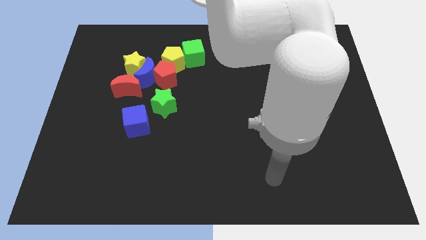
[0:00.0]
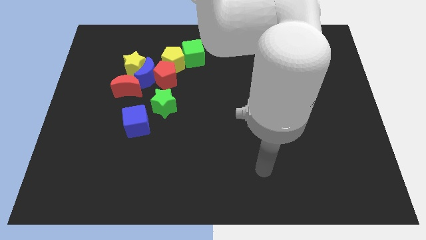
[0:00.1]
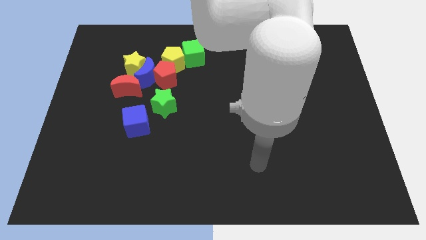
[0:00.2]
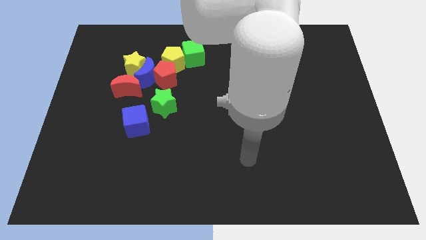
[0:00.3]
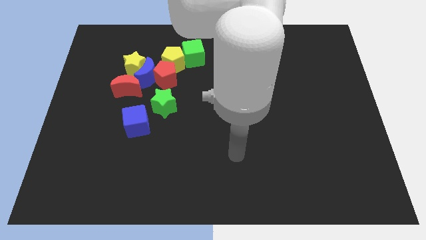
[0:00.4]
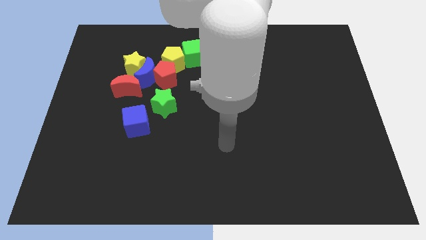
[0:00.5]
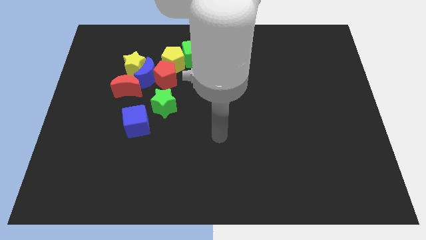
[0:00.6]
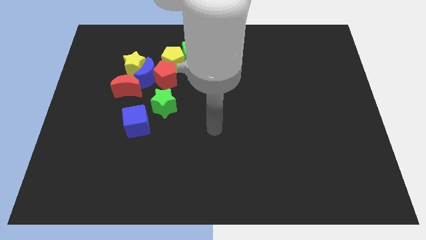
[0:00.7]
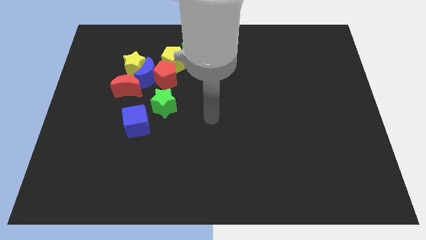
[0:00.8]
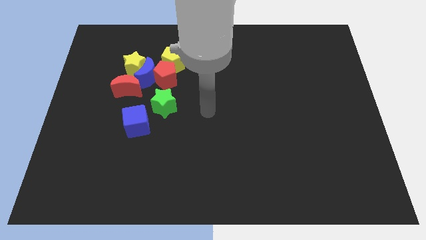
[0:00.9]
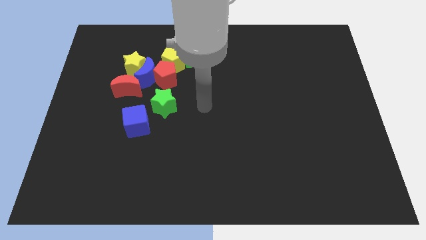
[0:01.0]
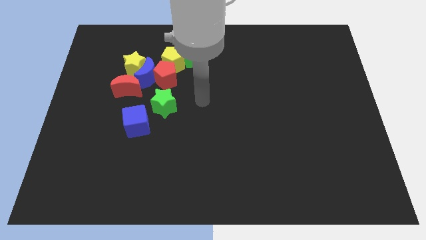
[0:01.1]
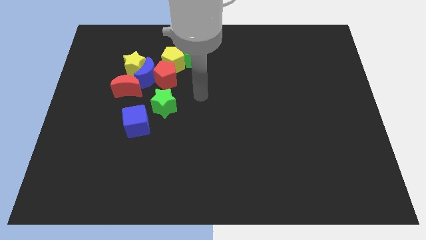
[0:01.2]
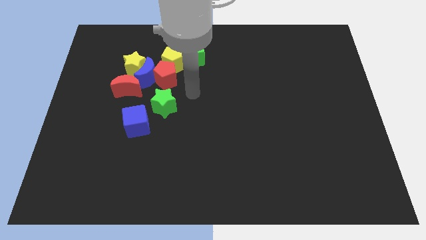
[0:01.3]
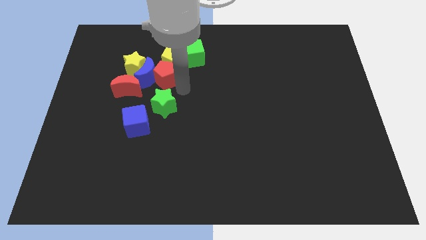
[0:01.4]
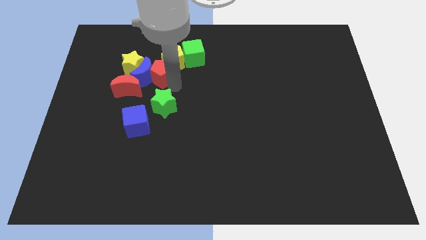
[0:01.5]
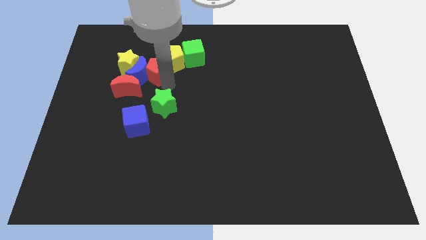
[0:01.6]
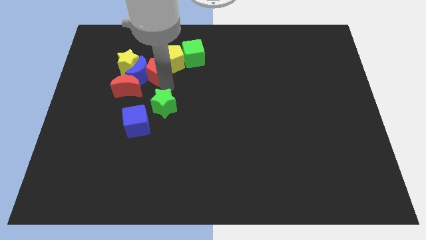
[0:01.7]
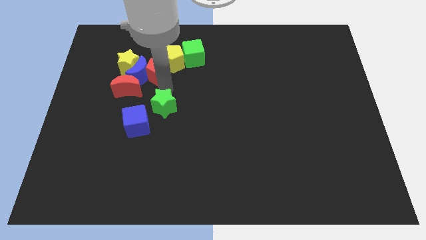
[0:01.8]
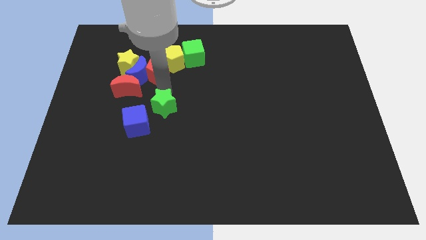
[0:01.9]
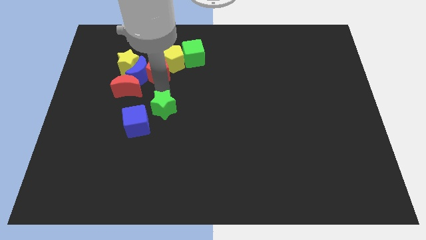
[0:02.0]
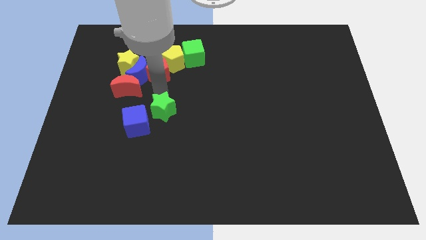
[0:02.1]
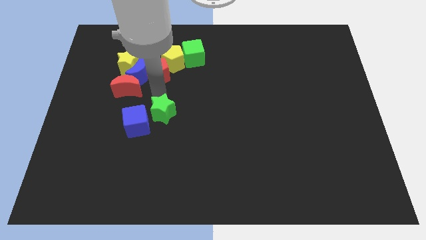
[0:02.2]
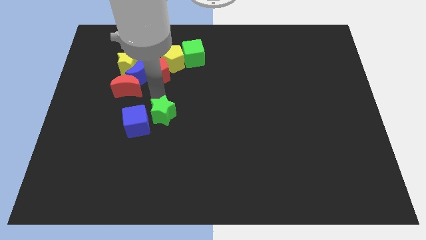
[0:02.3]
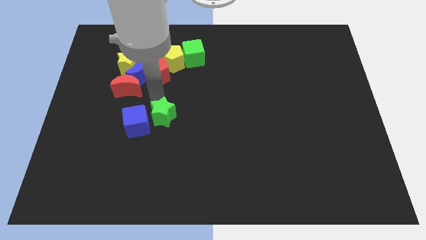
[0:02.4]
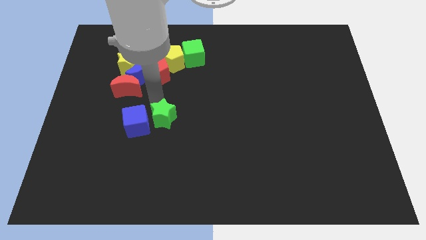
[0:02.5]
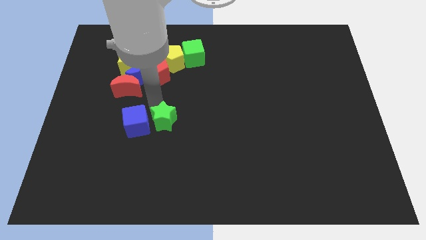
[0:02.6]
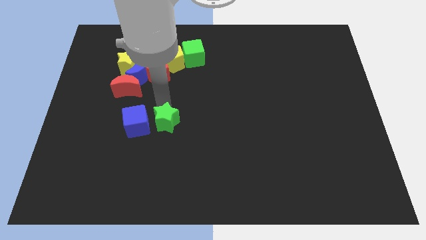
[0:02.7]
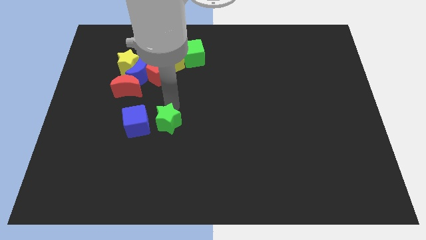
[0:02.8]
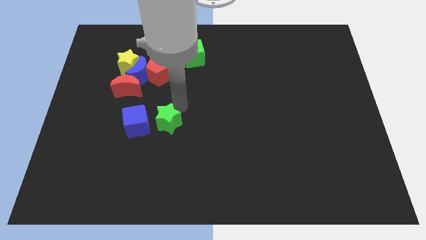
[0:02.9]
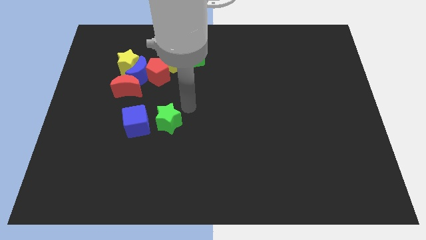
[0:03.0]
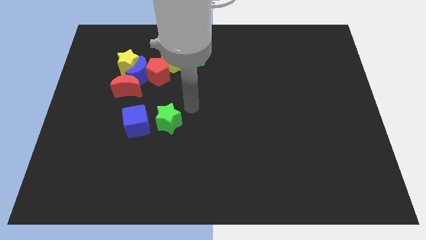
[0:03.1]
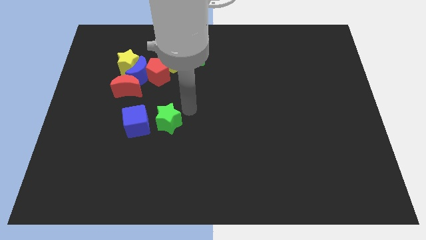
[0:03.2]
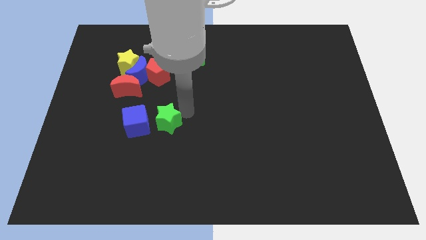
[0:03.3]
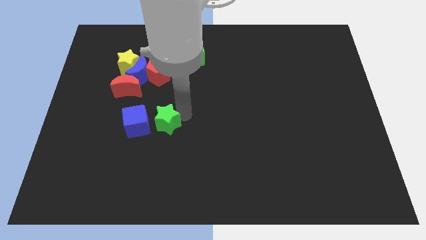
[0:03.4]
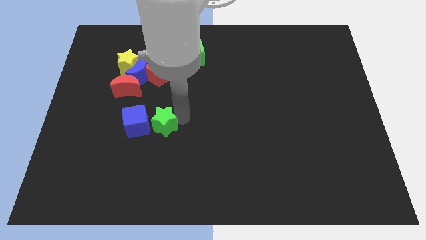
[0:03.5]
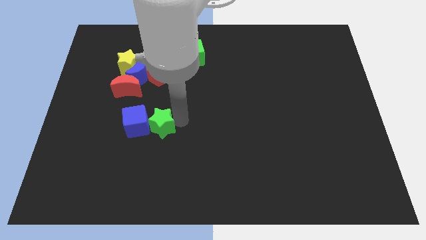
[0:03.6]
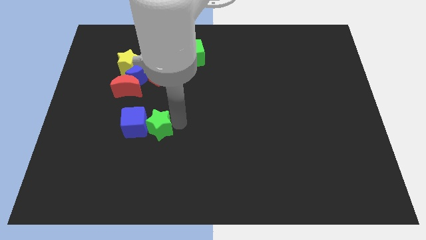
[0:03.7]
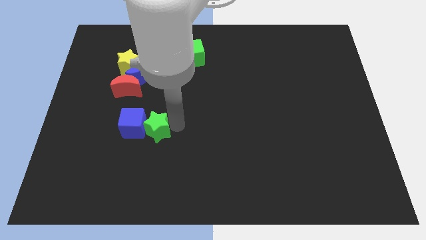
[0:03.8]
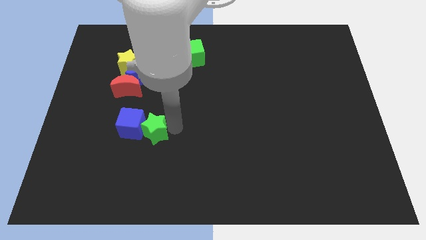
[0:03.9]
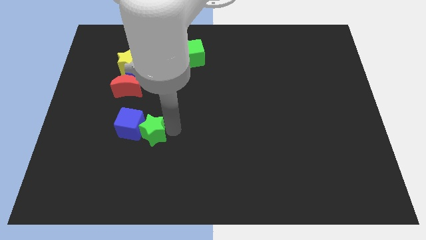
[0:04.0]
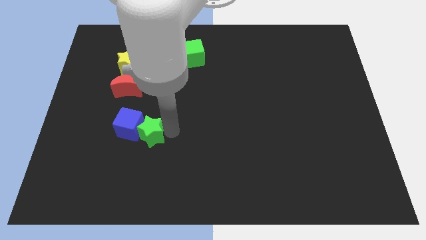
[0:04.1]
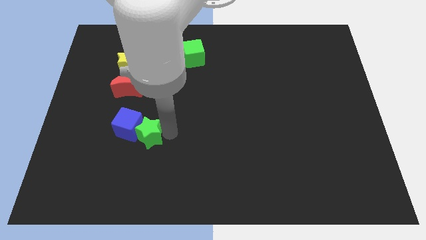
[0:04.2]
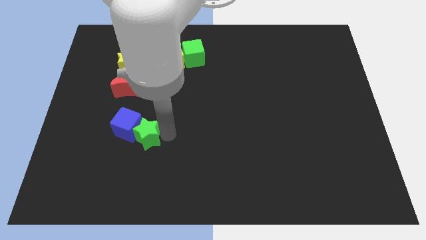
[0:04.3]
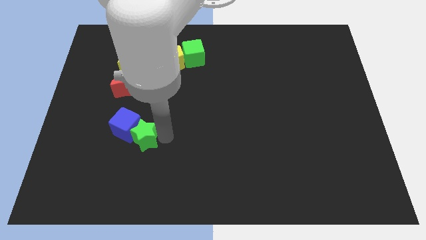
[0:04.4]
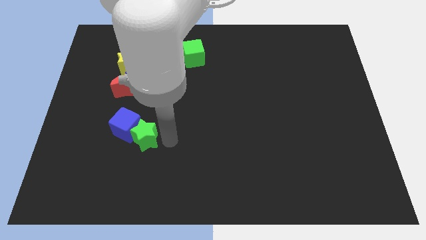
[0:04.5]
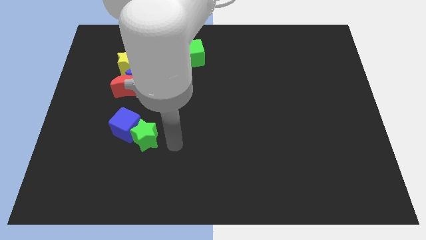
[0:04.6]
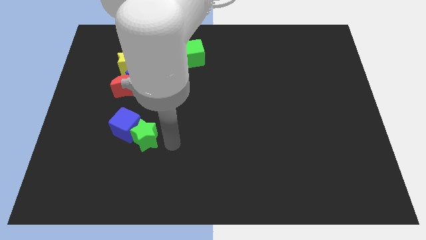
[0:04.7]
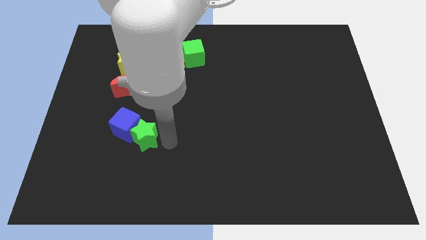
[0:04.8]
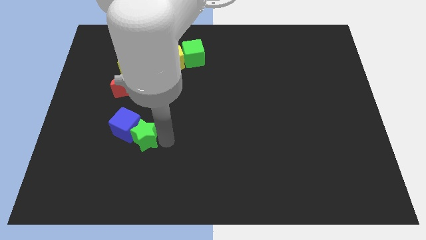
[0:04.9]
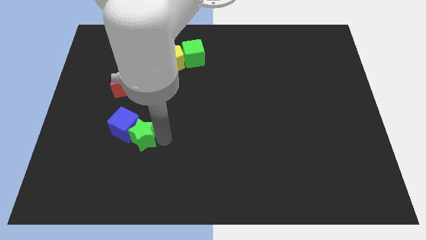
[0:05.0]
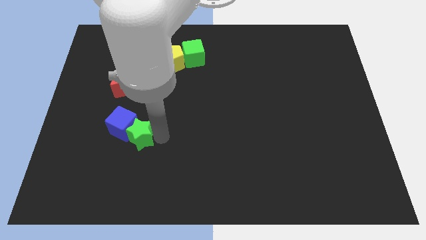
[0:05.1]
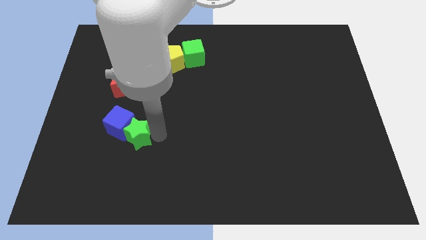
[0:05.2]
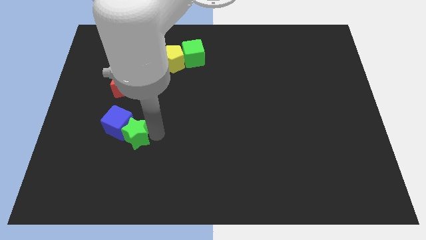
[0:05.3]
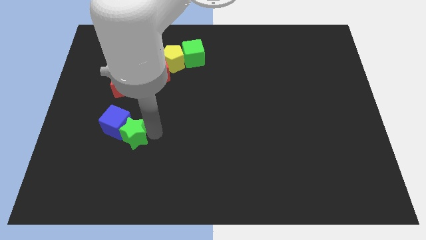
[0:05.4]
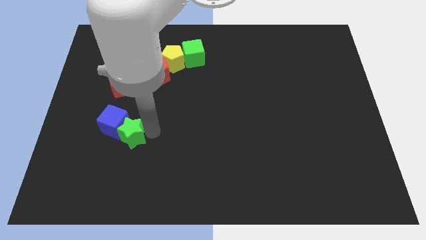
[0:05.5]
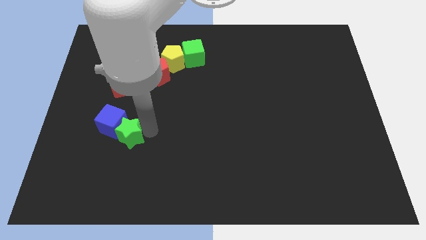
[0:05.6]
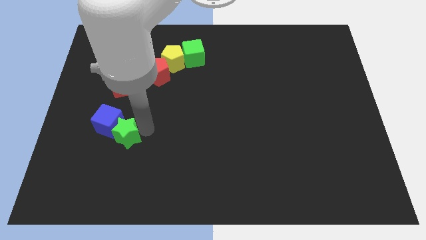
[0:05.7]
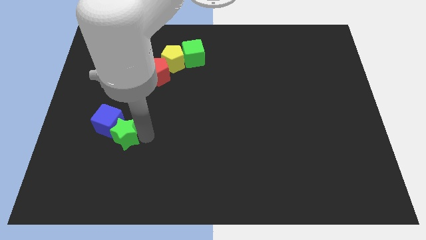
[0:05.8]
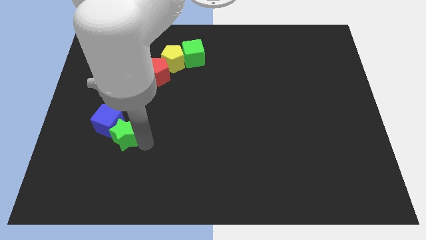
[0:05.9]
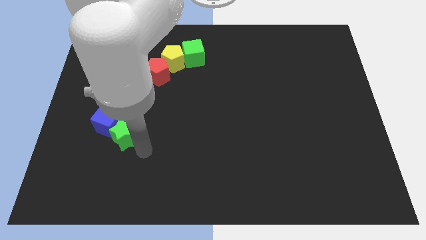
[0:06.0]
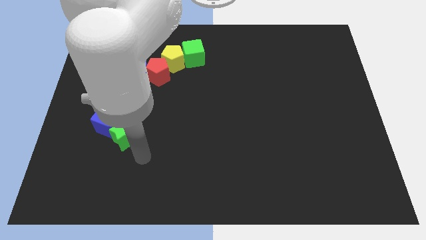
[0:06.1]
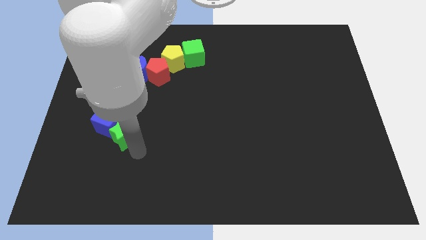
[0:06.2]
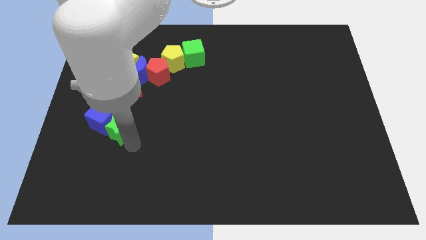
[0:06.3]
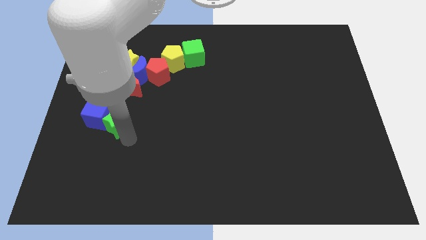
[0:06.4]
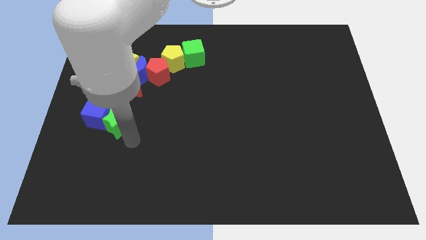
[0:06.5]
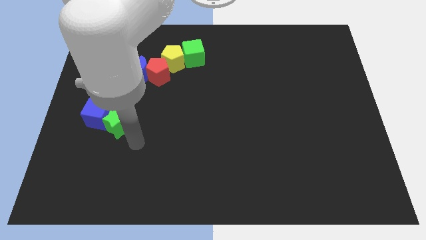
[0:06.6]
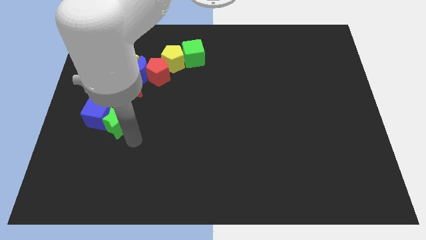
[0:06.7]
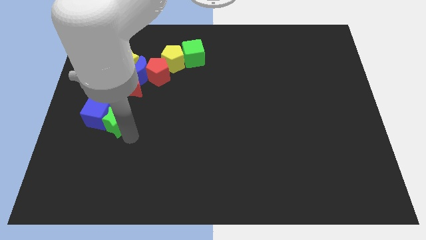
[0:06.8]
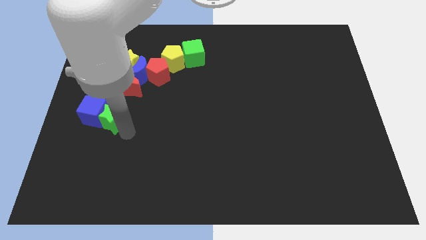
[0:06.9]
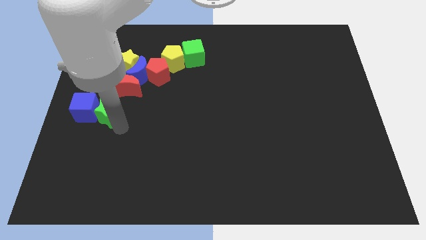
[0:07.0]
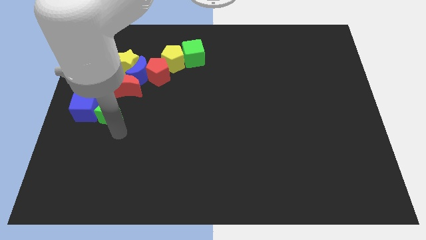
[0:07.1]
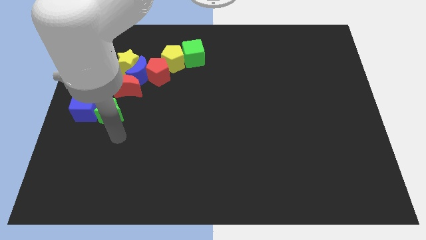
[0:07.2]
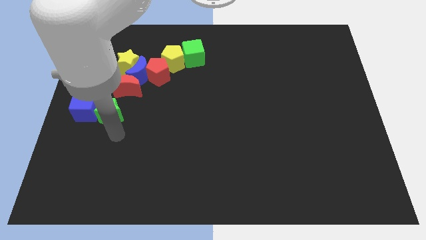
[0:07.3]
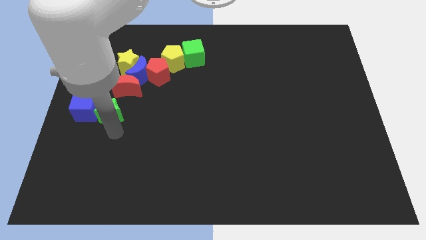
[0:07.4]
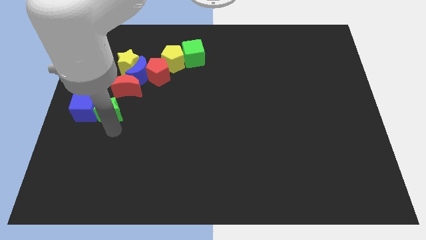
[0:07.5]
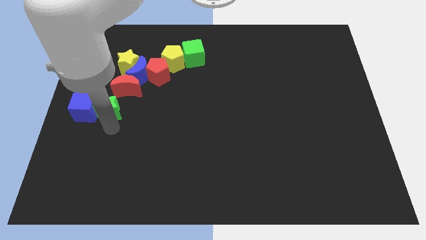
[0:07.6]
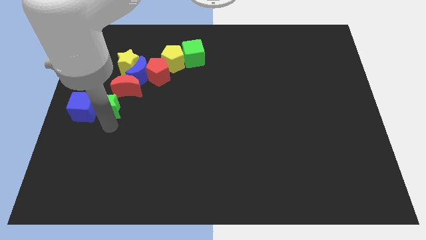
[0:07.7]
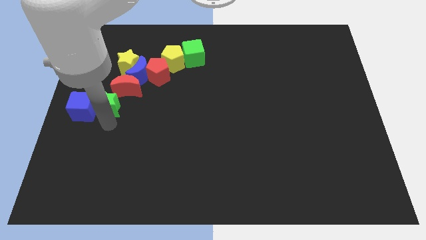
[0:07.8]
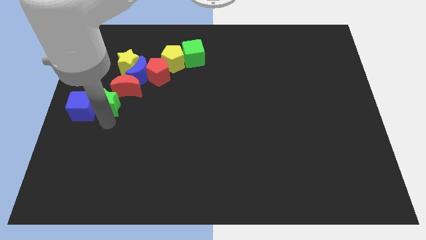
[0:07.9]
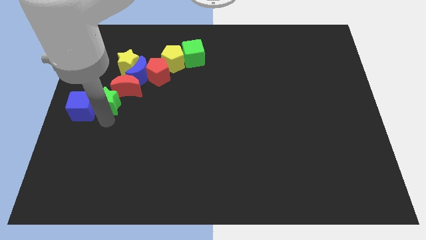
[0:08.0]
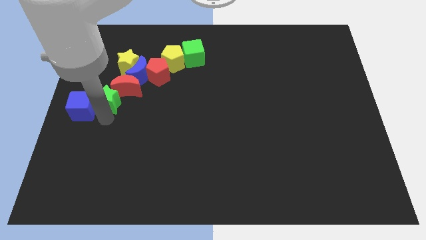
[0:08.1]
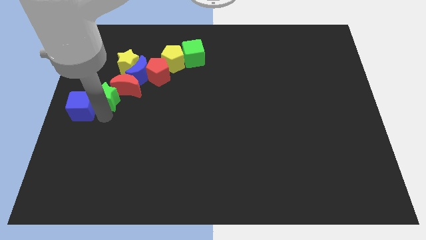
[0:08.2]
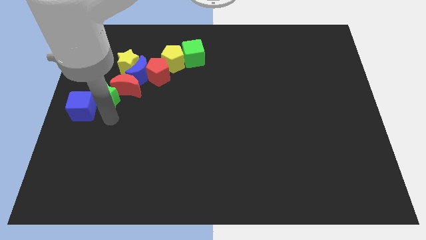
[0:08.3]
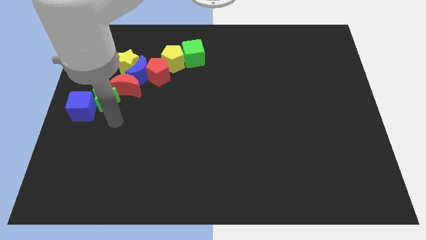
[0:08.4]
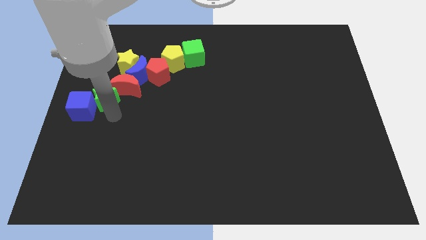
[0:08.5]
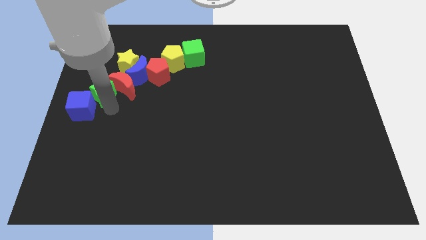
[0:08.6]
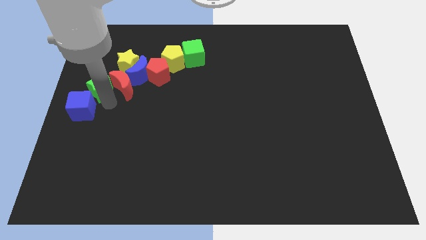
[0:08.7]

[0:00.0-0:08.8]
push the green star to the left side of the blue moon
